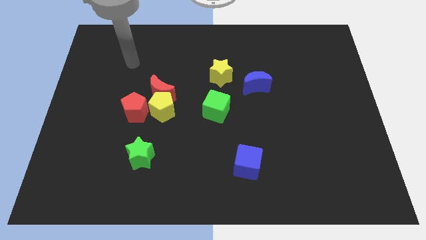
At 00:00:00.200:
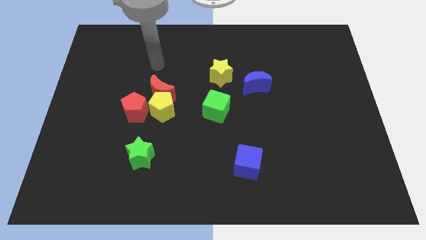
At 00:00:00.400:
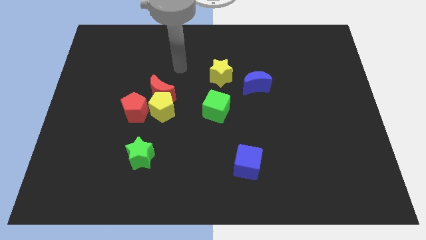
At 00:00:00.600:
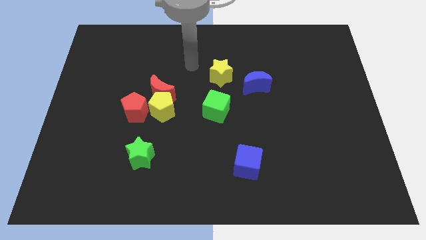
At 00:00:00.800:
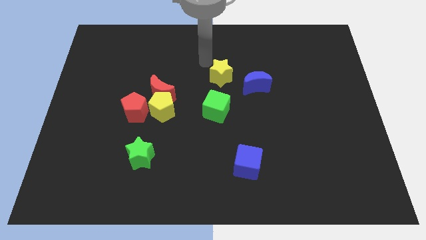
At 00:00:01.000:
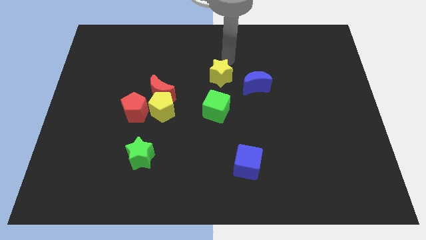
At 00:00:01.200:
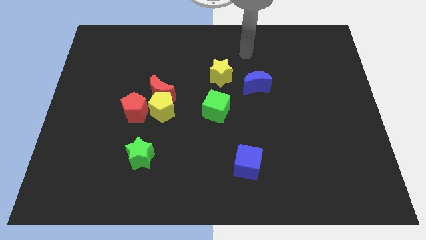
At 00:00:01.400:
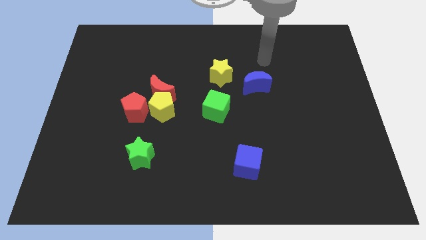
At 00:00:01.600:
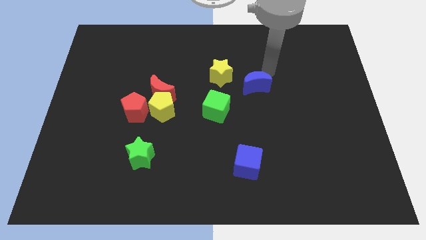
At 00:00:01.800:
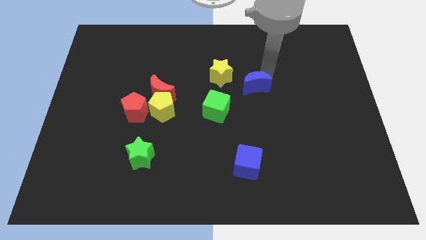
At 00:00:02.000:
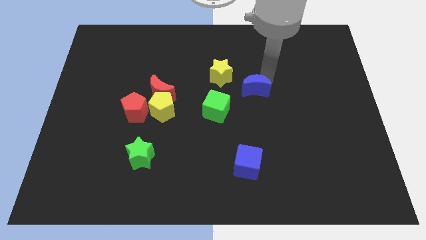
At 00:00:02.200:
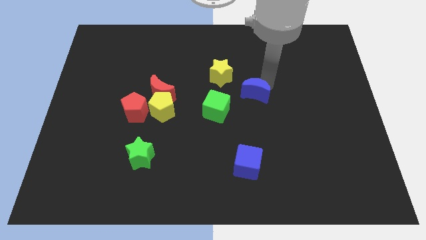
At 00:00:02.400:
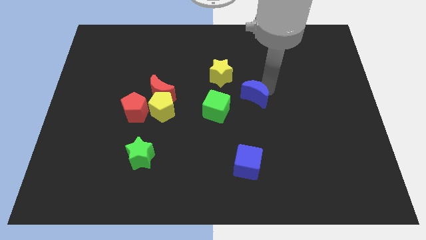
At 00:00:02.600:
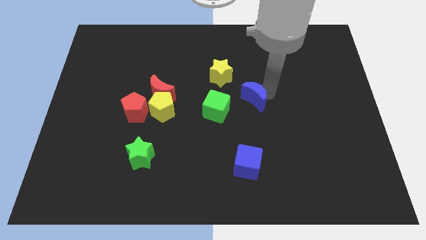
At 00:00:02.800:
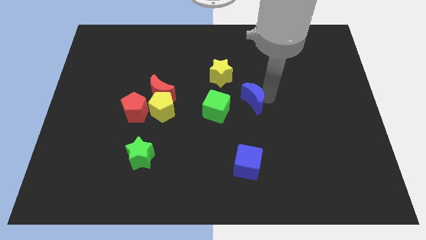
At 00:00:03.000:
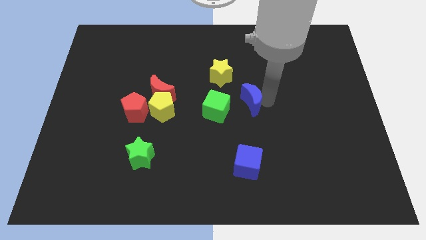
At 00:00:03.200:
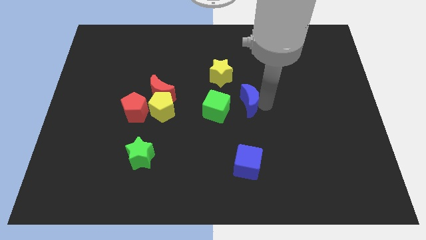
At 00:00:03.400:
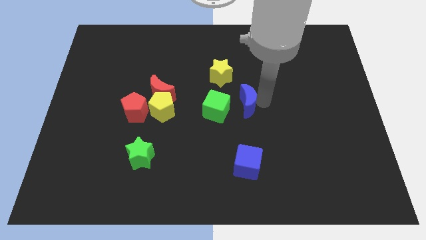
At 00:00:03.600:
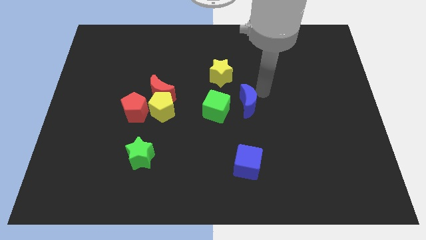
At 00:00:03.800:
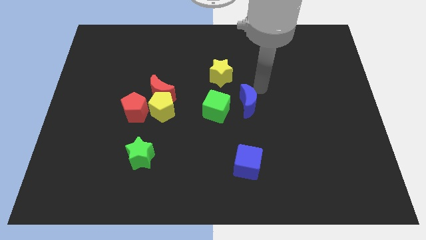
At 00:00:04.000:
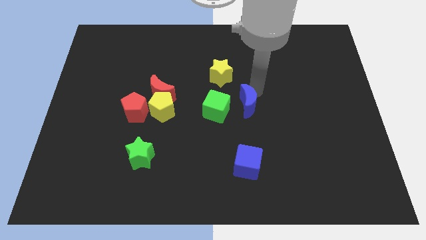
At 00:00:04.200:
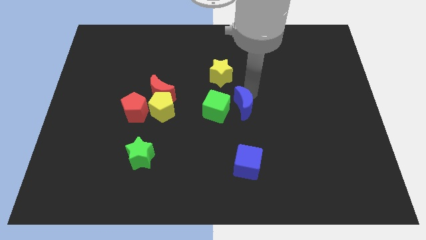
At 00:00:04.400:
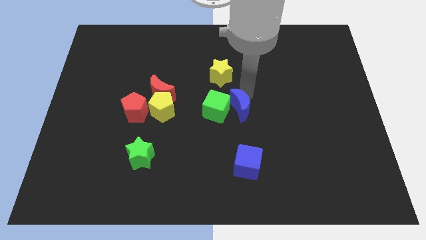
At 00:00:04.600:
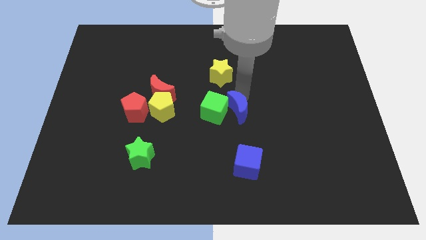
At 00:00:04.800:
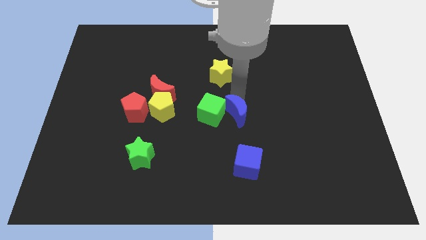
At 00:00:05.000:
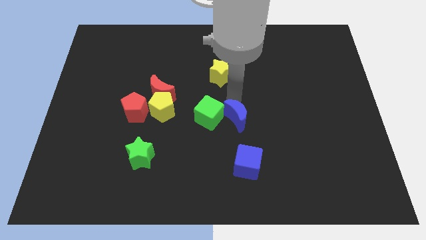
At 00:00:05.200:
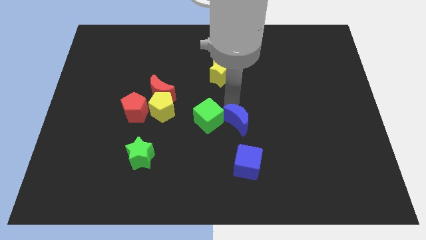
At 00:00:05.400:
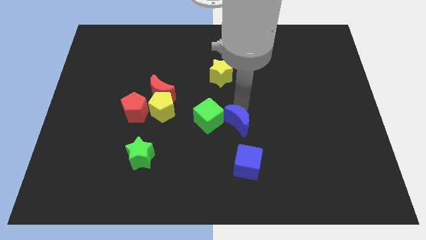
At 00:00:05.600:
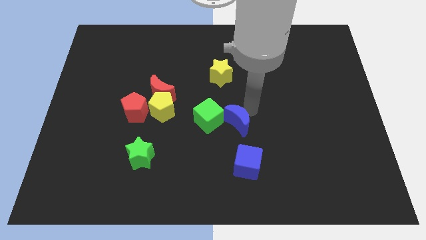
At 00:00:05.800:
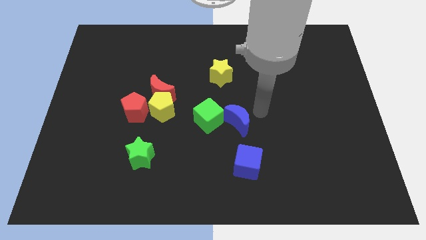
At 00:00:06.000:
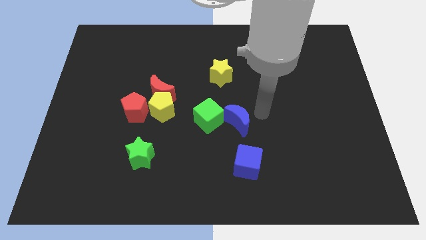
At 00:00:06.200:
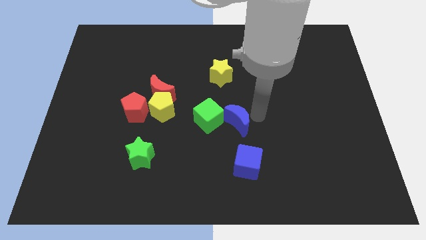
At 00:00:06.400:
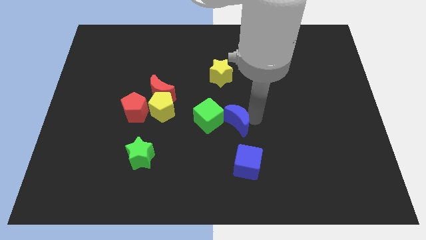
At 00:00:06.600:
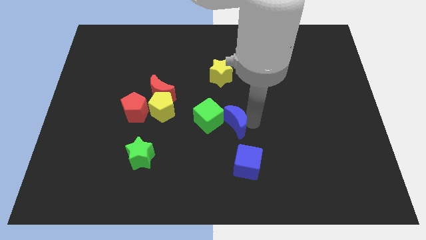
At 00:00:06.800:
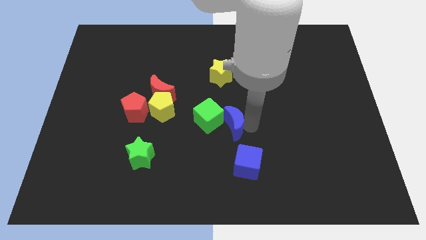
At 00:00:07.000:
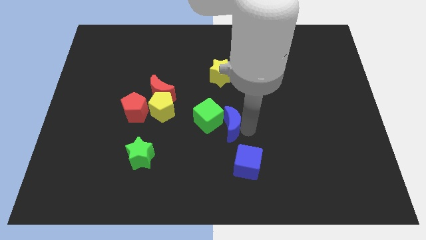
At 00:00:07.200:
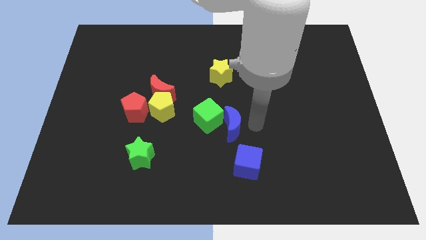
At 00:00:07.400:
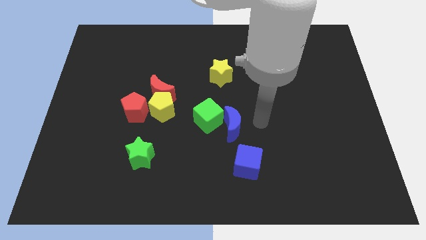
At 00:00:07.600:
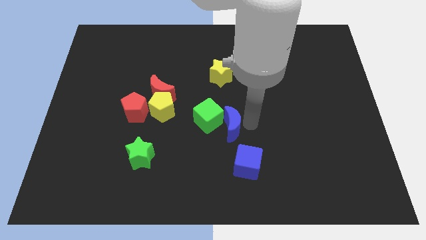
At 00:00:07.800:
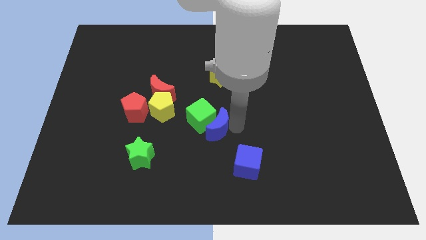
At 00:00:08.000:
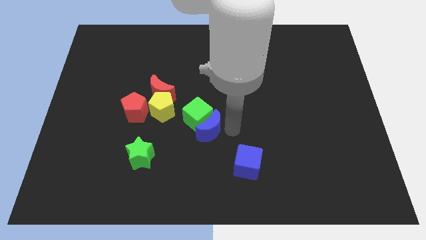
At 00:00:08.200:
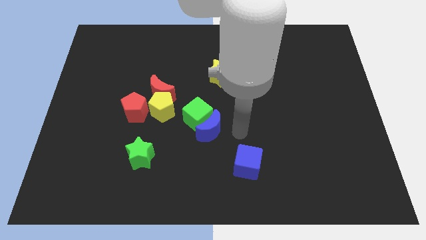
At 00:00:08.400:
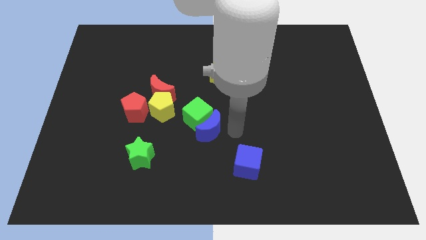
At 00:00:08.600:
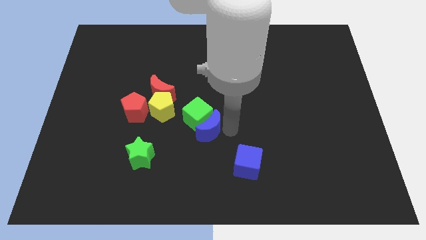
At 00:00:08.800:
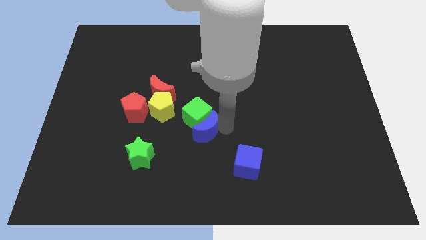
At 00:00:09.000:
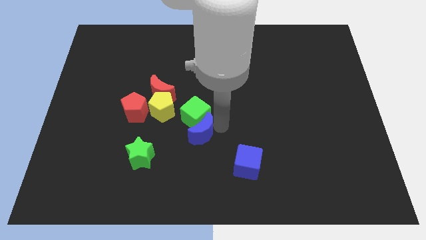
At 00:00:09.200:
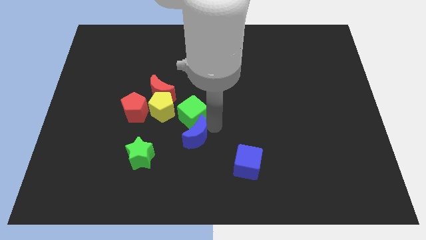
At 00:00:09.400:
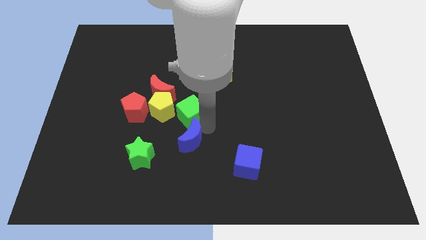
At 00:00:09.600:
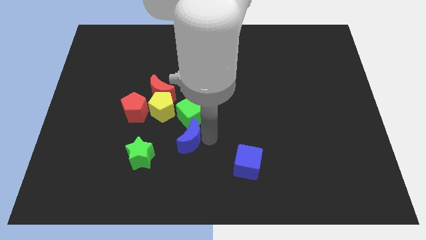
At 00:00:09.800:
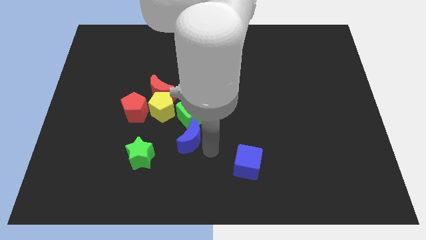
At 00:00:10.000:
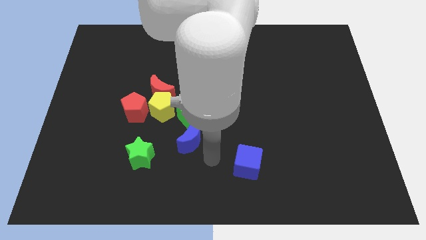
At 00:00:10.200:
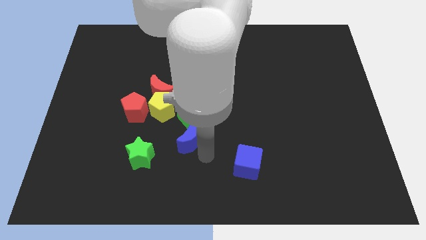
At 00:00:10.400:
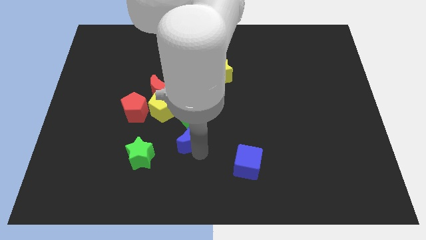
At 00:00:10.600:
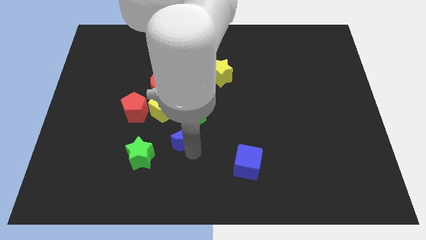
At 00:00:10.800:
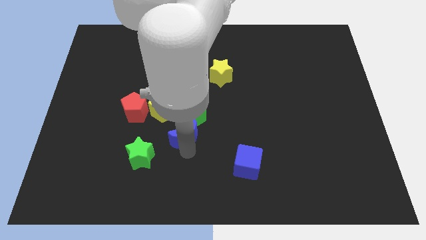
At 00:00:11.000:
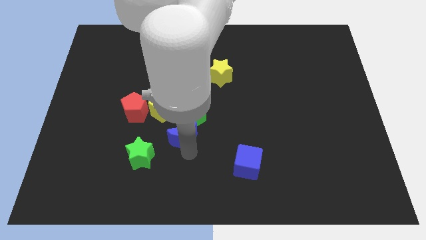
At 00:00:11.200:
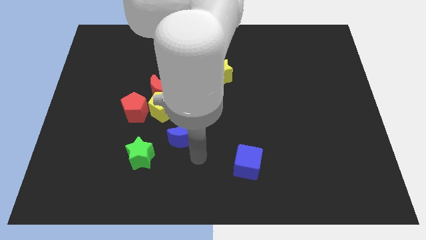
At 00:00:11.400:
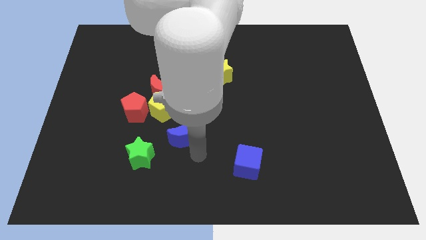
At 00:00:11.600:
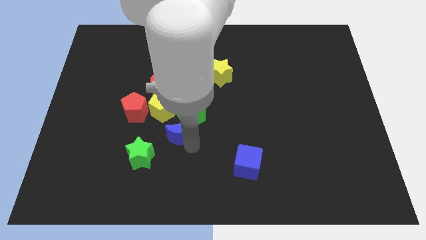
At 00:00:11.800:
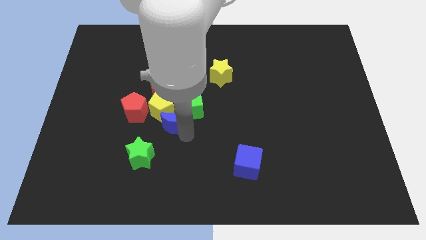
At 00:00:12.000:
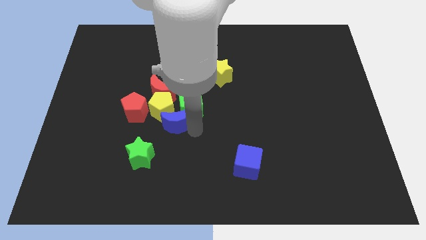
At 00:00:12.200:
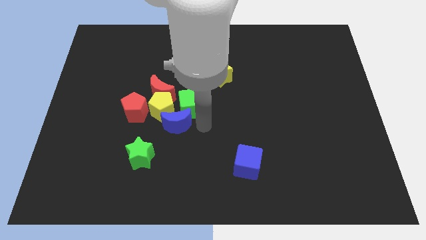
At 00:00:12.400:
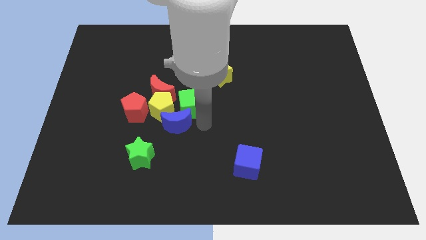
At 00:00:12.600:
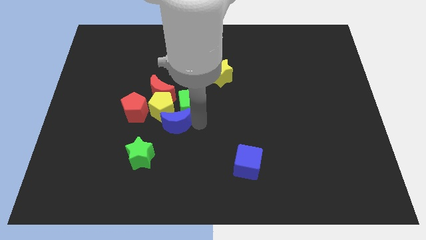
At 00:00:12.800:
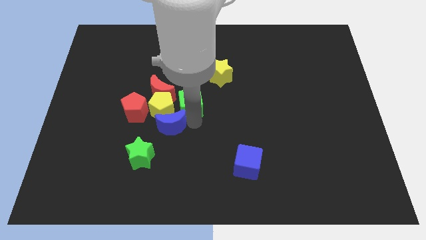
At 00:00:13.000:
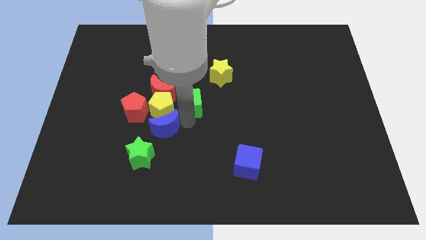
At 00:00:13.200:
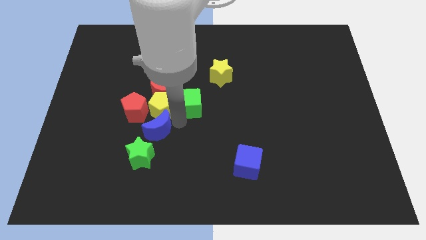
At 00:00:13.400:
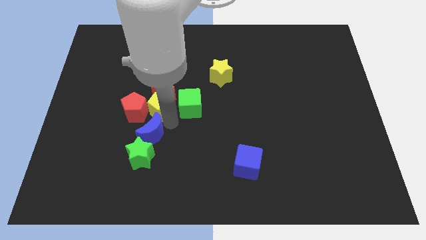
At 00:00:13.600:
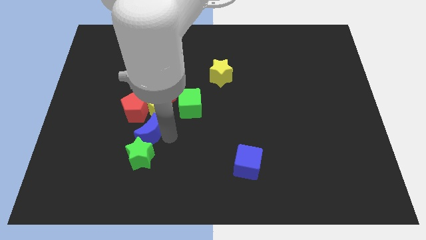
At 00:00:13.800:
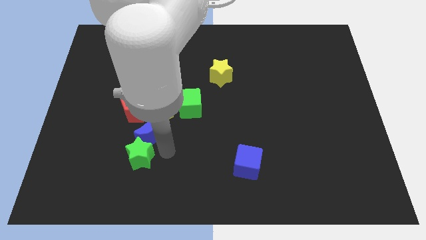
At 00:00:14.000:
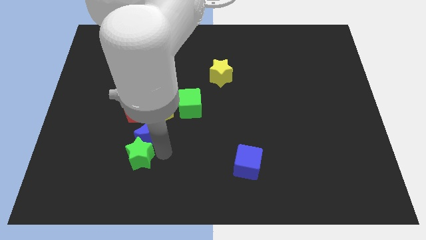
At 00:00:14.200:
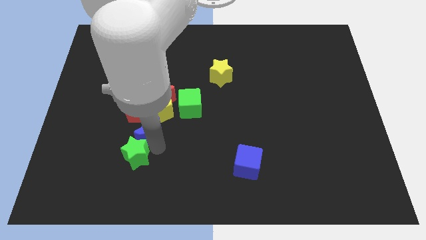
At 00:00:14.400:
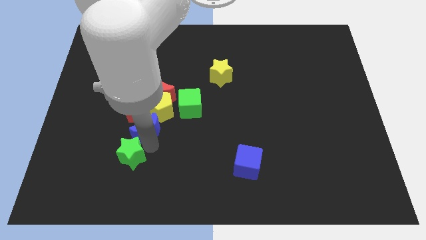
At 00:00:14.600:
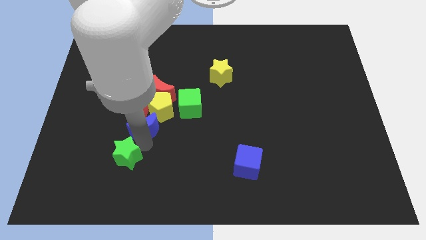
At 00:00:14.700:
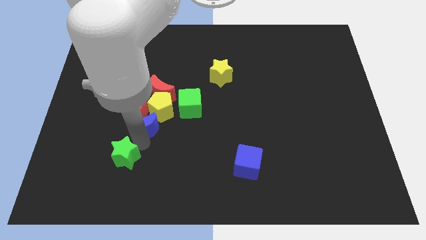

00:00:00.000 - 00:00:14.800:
push the blue moon next to the red pentagon
